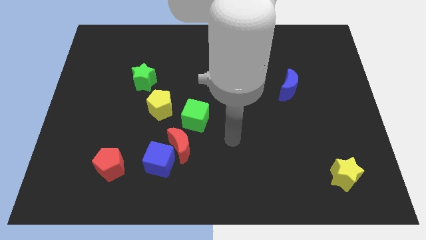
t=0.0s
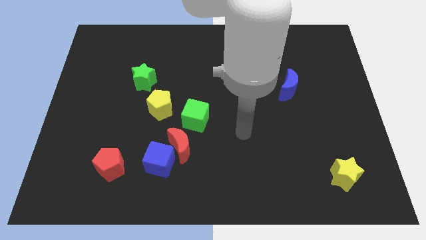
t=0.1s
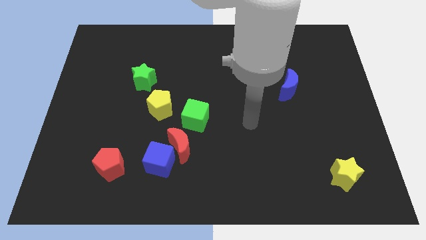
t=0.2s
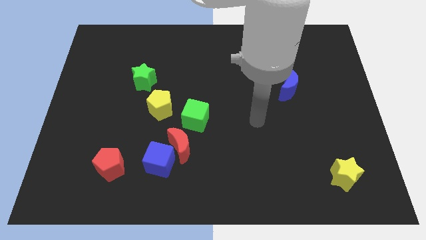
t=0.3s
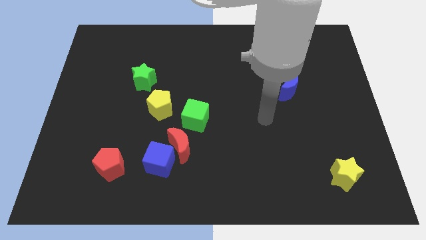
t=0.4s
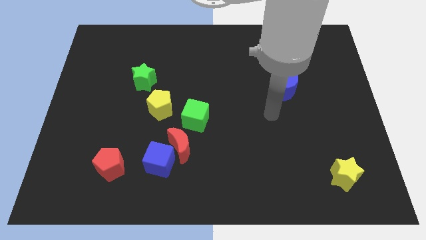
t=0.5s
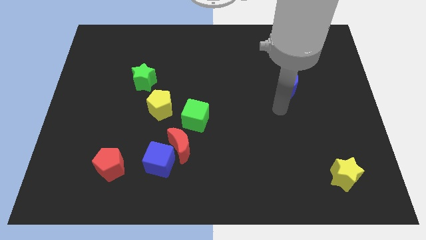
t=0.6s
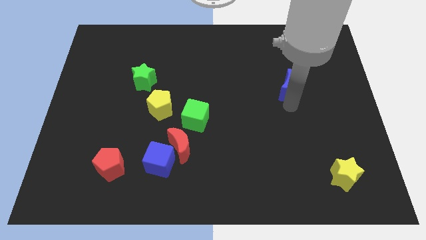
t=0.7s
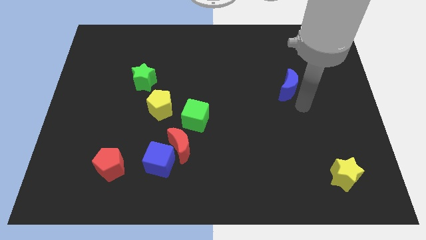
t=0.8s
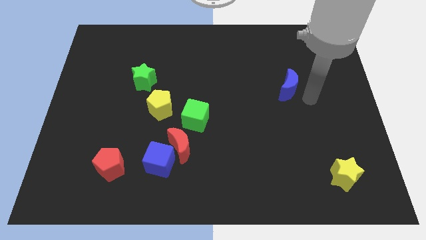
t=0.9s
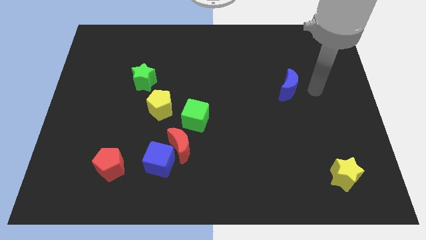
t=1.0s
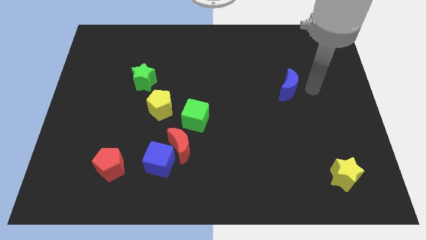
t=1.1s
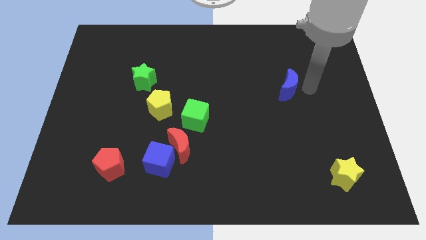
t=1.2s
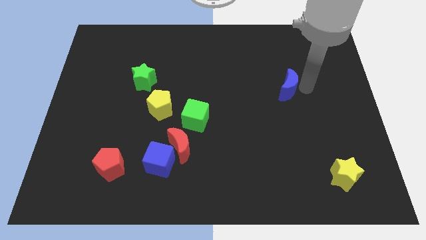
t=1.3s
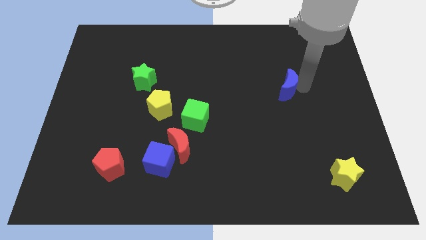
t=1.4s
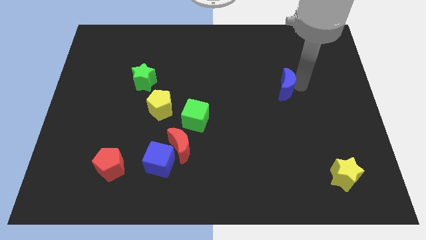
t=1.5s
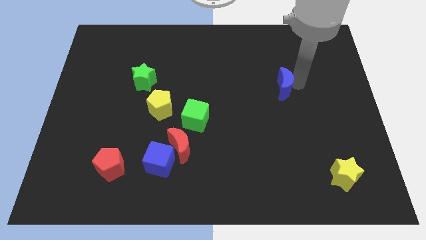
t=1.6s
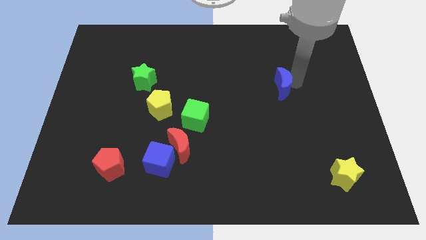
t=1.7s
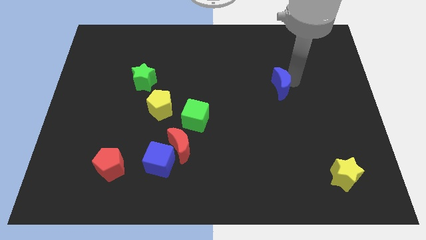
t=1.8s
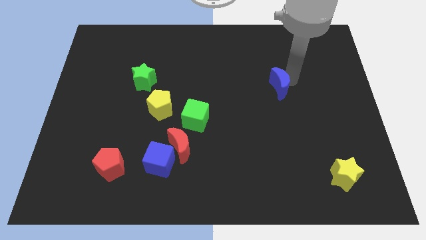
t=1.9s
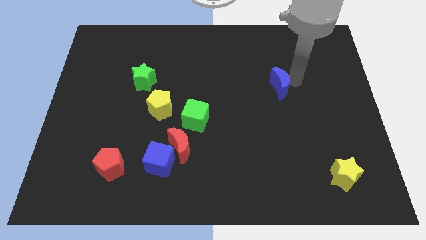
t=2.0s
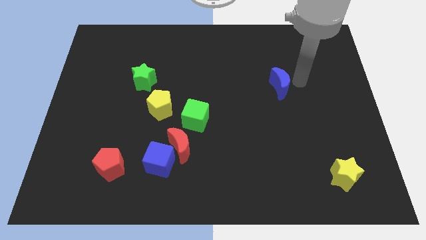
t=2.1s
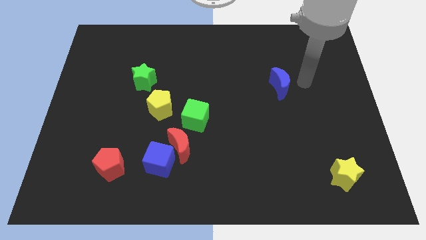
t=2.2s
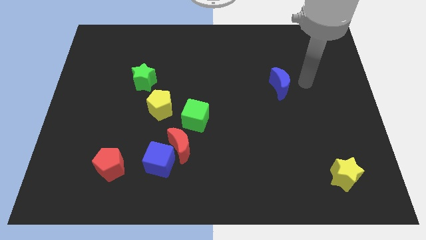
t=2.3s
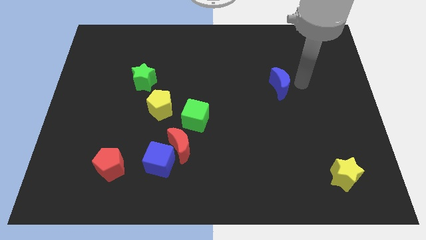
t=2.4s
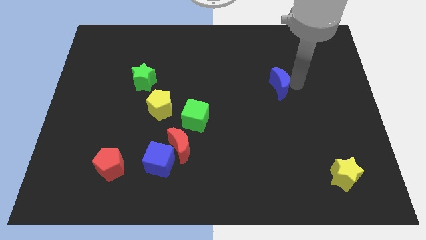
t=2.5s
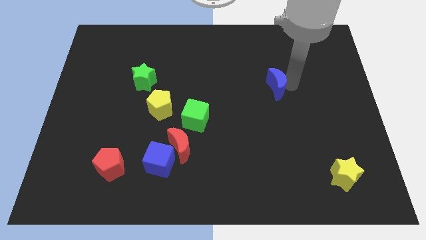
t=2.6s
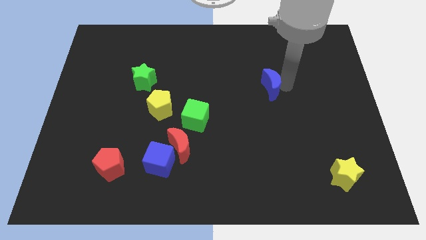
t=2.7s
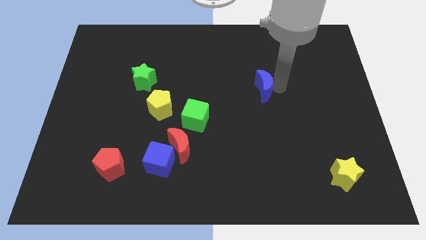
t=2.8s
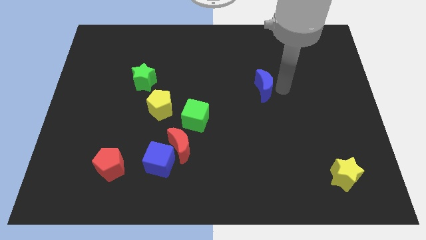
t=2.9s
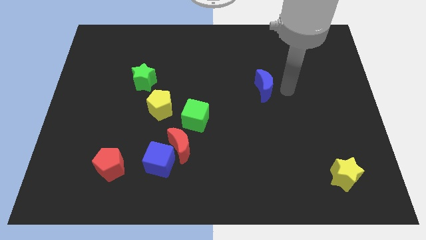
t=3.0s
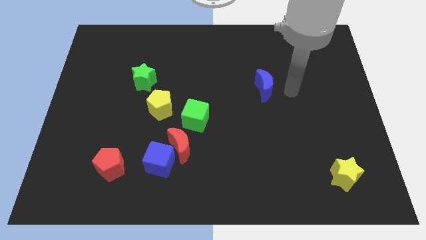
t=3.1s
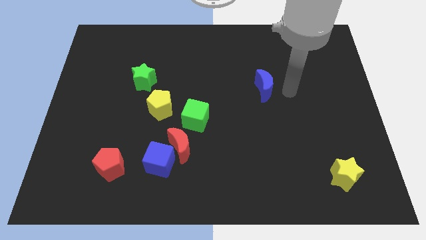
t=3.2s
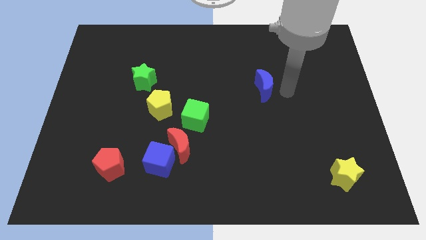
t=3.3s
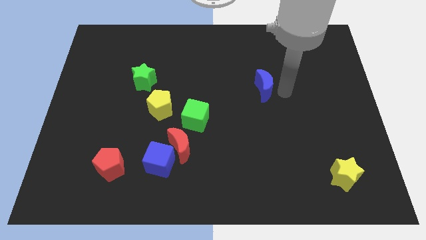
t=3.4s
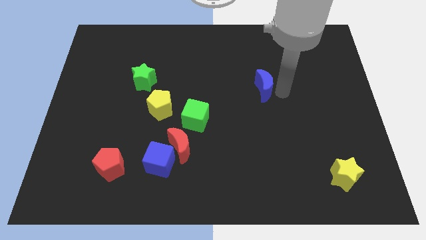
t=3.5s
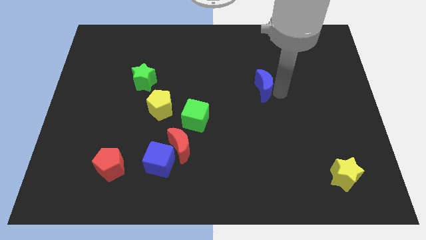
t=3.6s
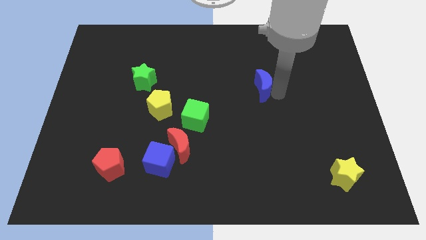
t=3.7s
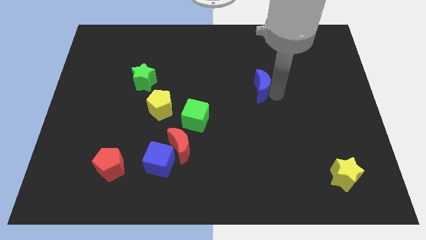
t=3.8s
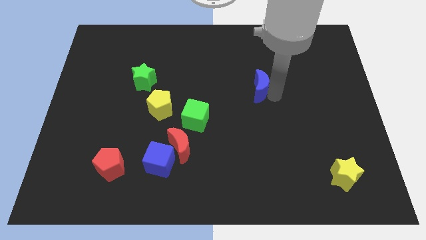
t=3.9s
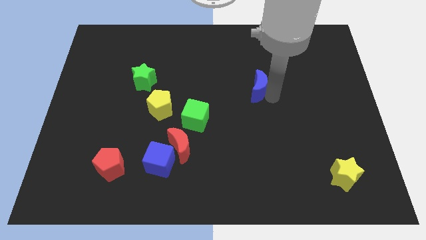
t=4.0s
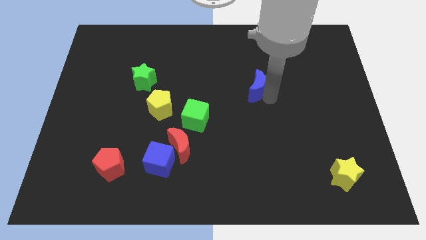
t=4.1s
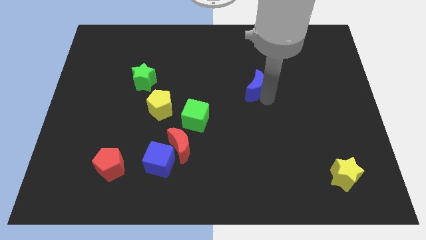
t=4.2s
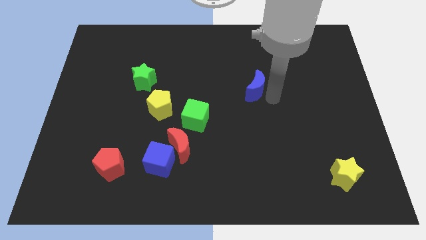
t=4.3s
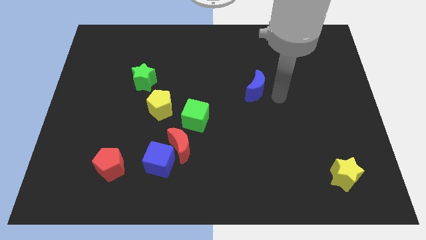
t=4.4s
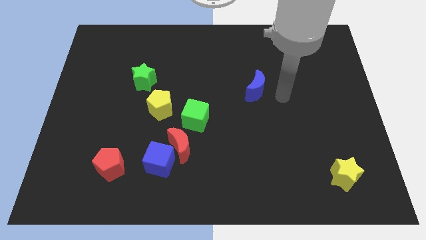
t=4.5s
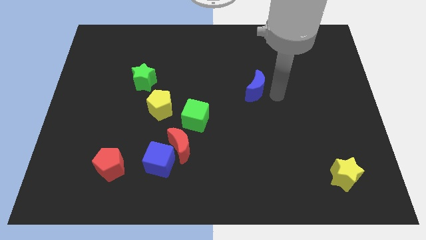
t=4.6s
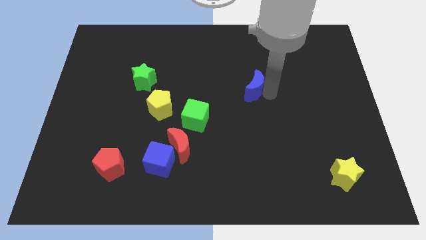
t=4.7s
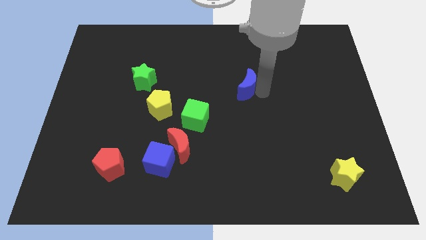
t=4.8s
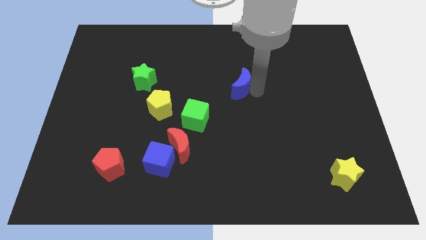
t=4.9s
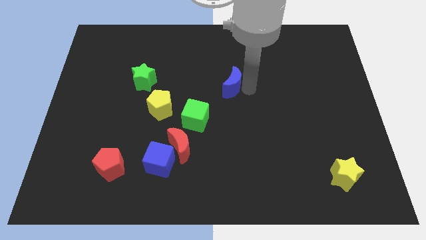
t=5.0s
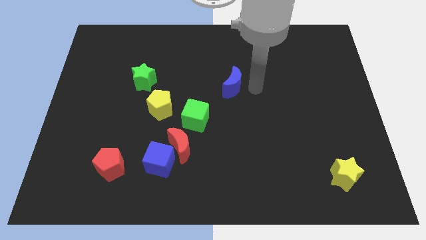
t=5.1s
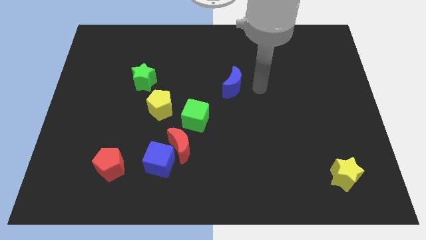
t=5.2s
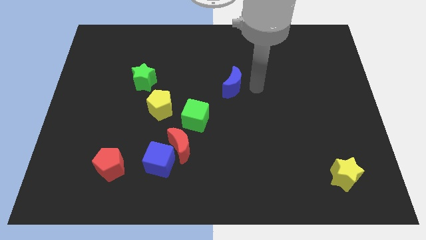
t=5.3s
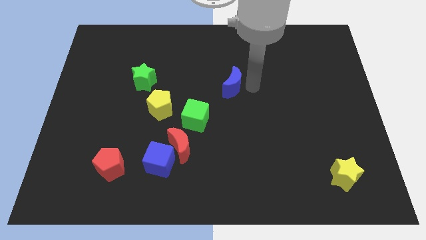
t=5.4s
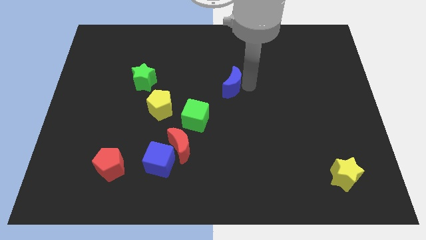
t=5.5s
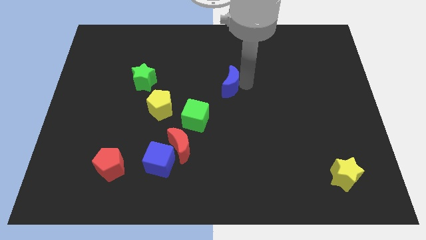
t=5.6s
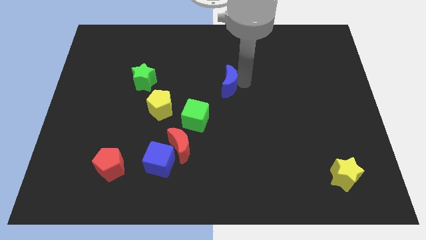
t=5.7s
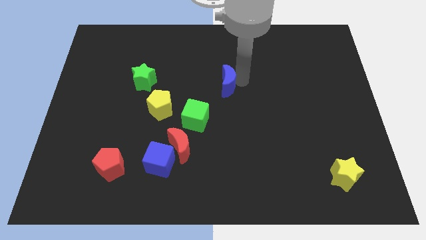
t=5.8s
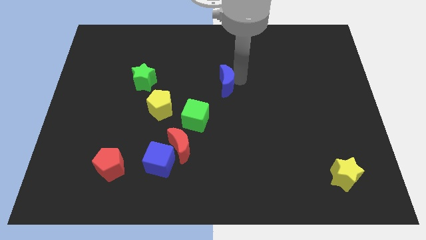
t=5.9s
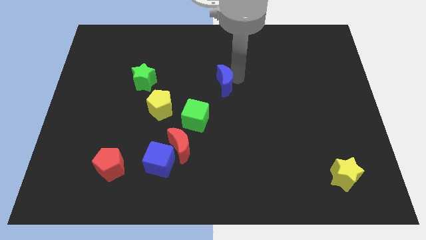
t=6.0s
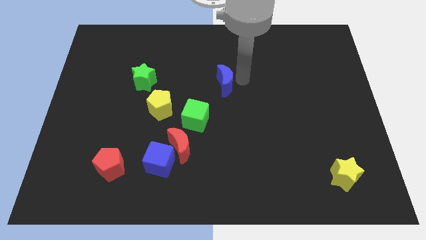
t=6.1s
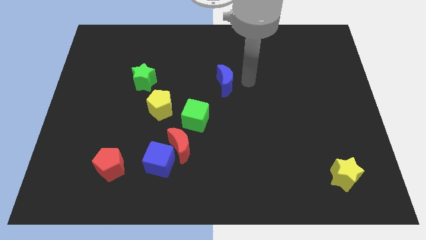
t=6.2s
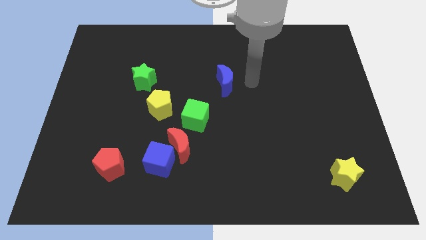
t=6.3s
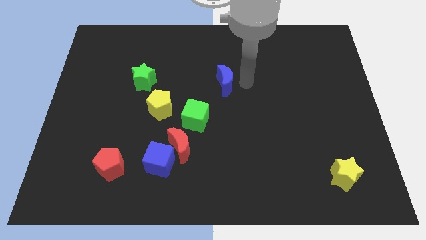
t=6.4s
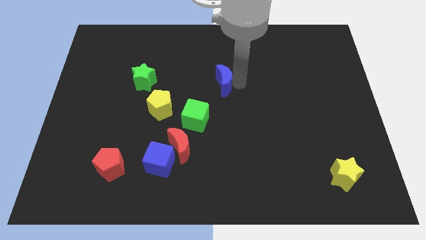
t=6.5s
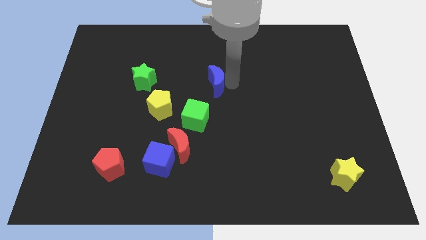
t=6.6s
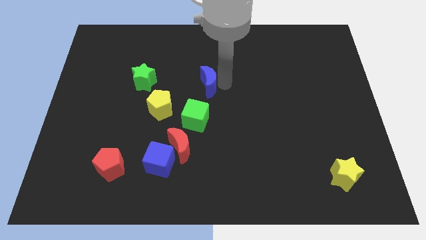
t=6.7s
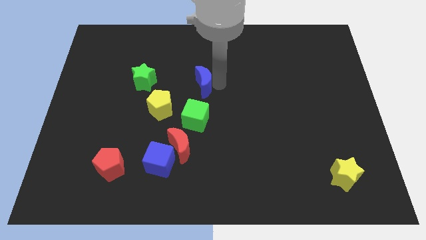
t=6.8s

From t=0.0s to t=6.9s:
slide the blue moon left

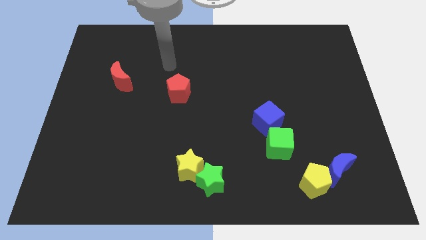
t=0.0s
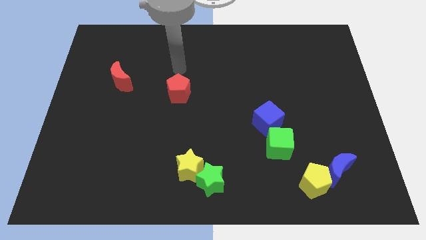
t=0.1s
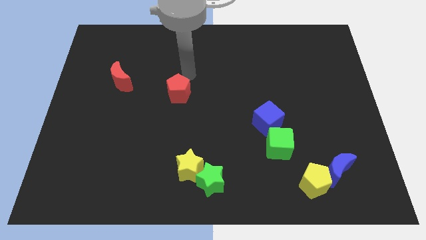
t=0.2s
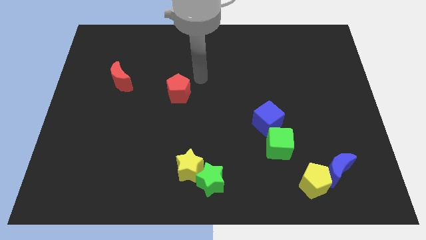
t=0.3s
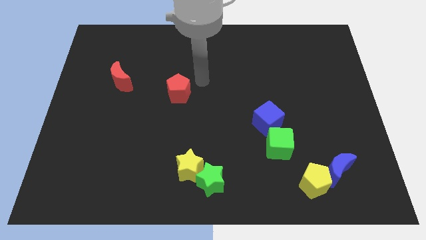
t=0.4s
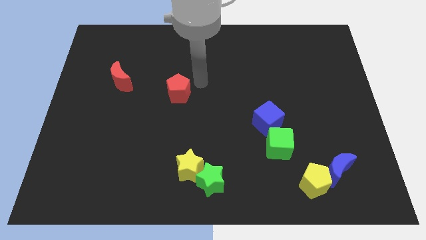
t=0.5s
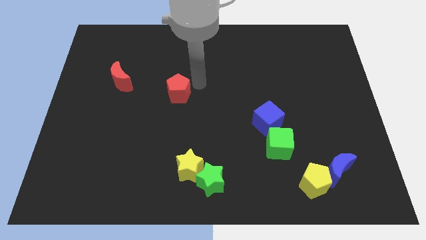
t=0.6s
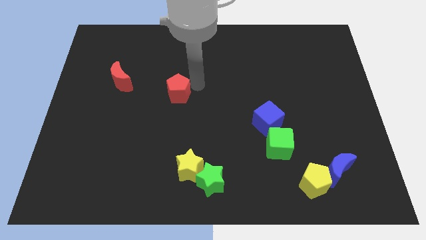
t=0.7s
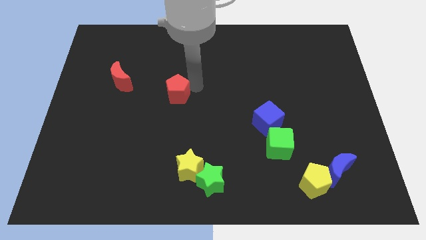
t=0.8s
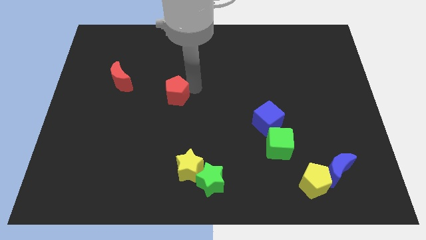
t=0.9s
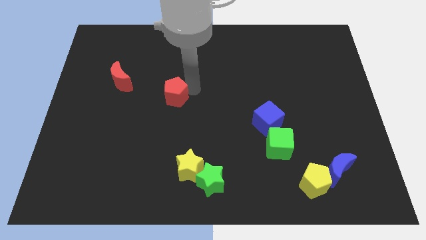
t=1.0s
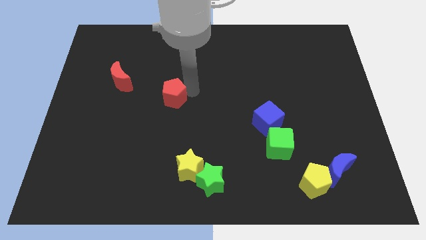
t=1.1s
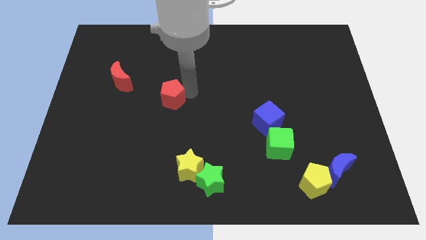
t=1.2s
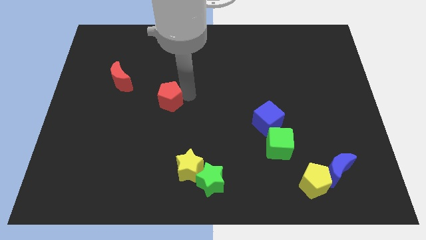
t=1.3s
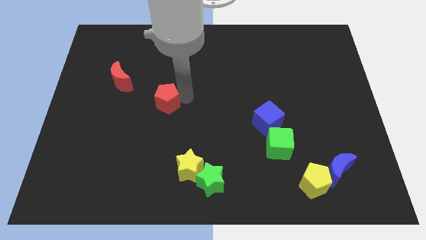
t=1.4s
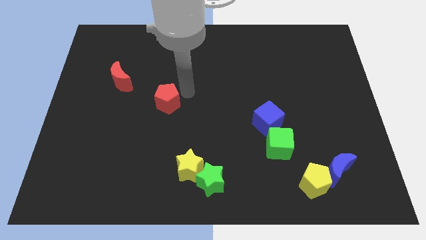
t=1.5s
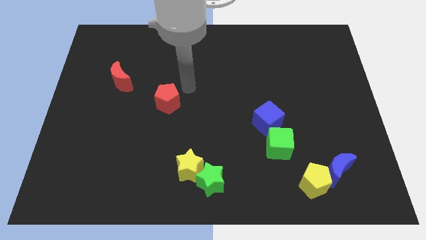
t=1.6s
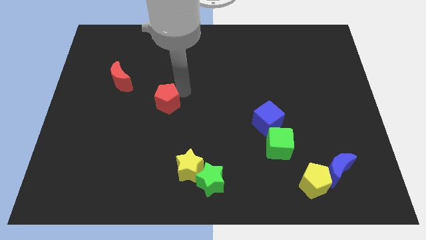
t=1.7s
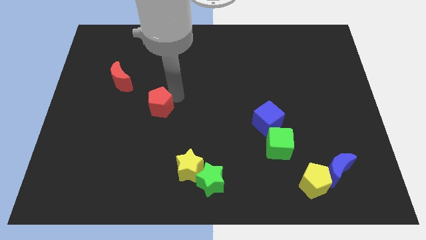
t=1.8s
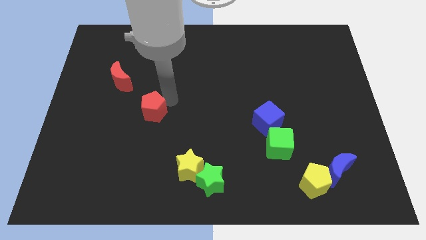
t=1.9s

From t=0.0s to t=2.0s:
move the red pentagon somewhat downwards and left
